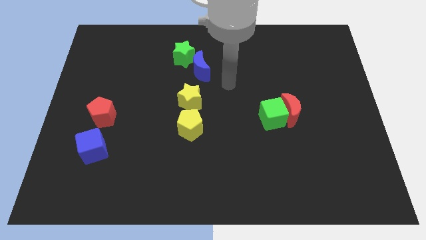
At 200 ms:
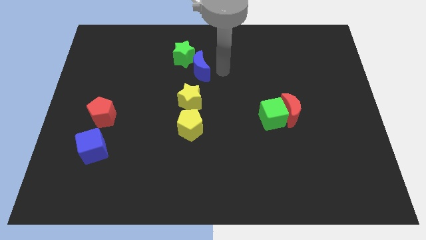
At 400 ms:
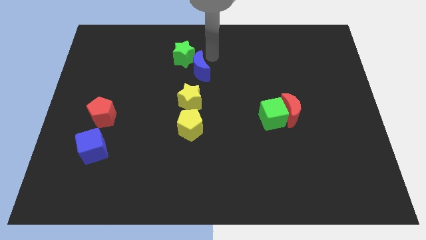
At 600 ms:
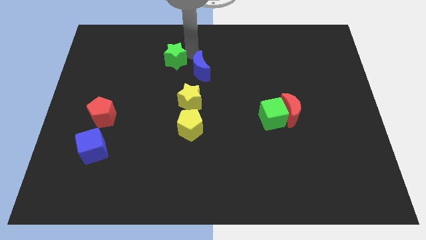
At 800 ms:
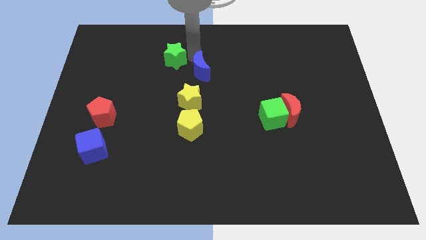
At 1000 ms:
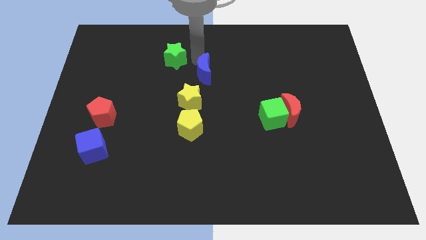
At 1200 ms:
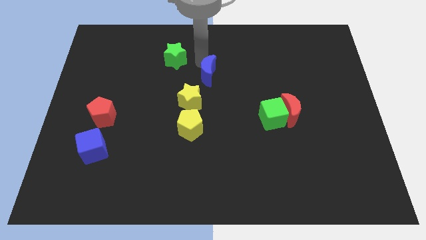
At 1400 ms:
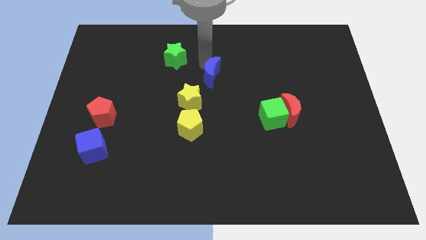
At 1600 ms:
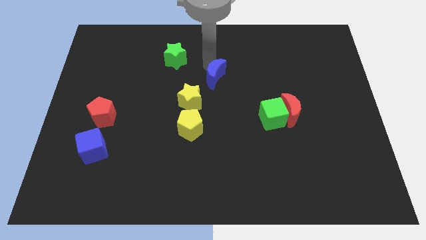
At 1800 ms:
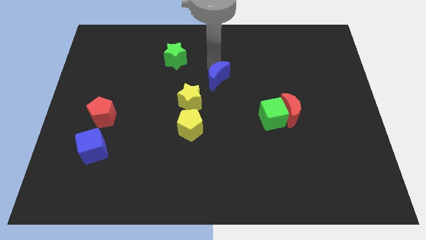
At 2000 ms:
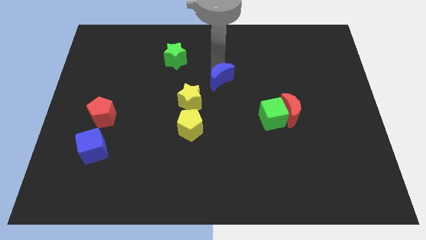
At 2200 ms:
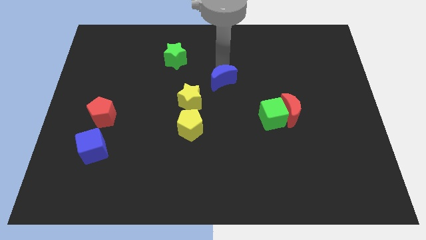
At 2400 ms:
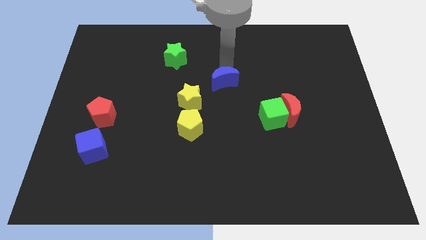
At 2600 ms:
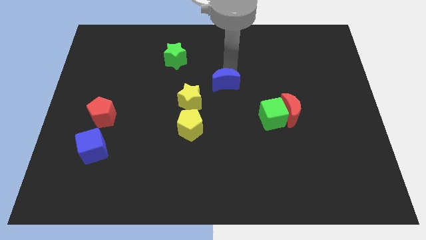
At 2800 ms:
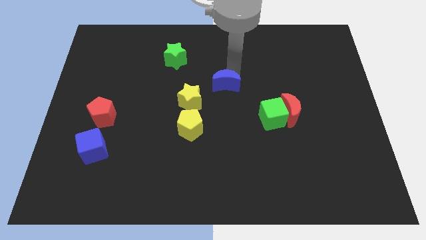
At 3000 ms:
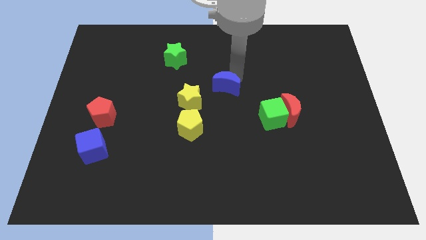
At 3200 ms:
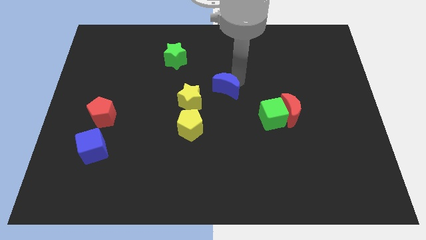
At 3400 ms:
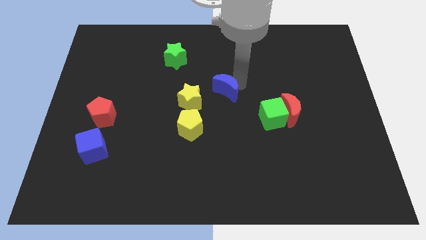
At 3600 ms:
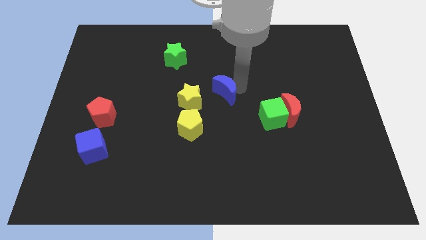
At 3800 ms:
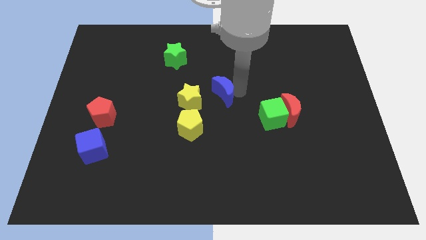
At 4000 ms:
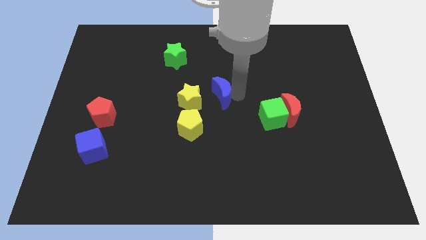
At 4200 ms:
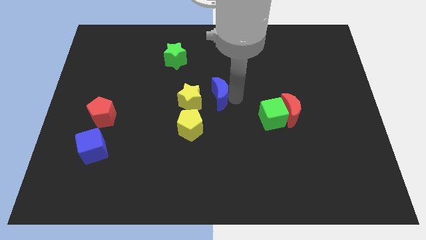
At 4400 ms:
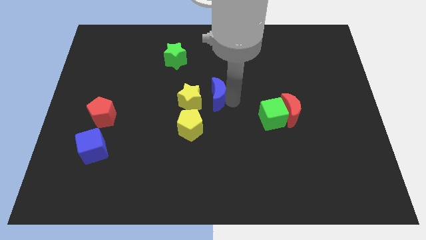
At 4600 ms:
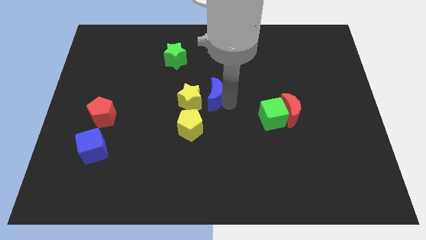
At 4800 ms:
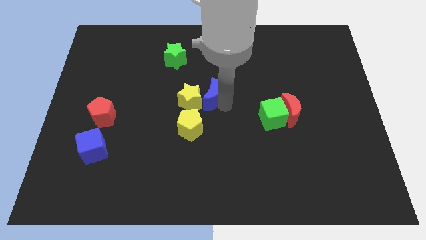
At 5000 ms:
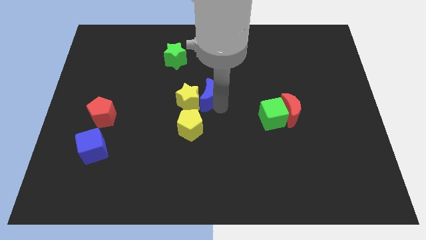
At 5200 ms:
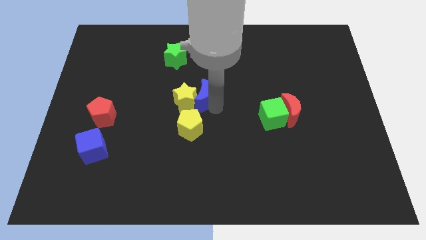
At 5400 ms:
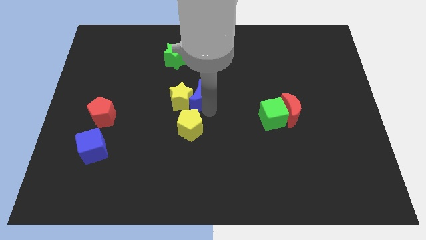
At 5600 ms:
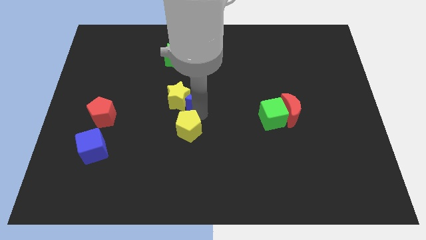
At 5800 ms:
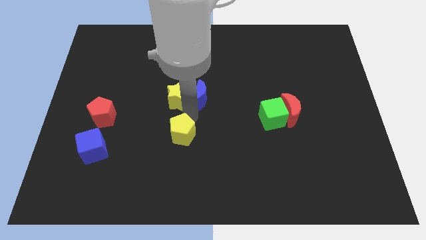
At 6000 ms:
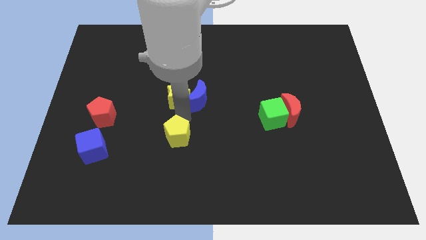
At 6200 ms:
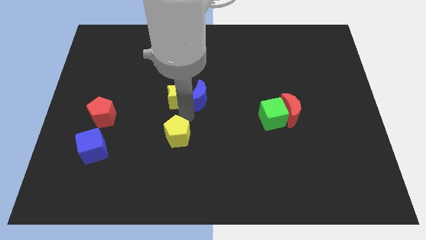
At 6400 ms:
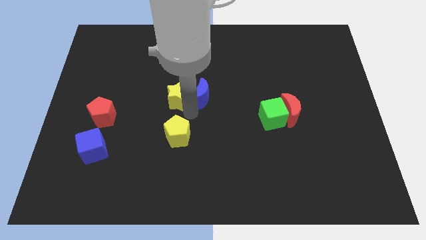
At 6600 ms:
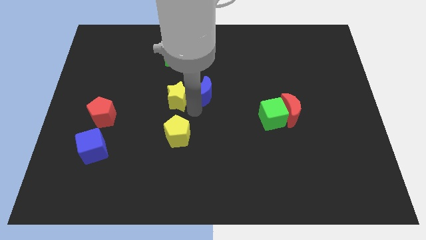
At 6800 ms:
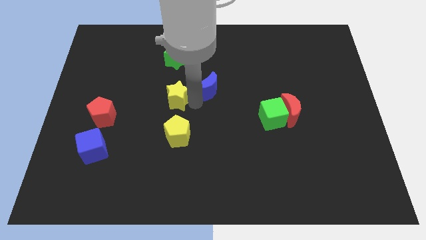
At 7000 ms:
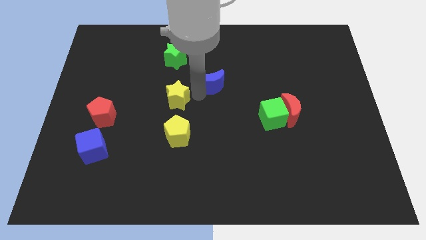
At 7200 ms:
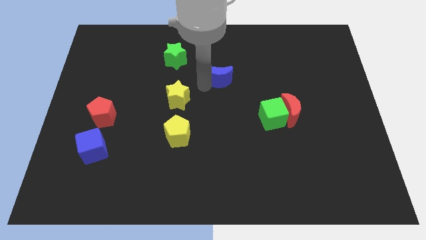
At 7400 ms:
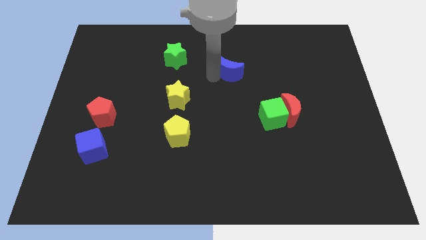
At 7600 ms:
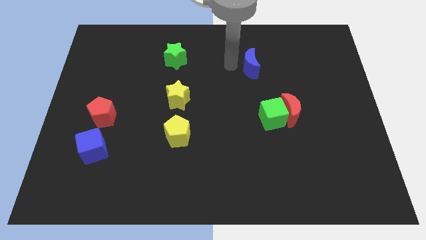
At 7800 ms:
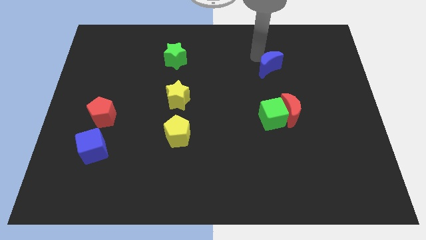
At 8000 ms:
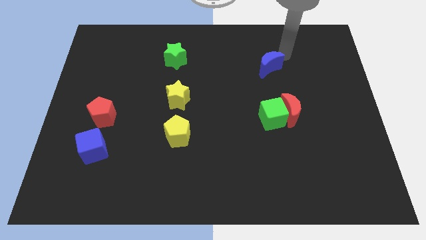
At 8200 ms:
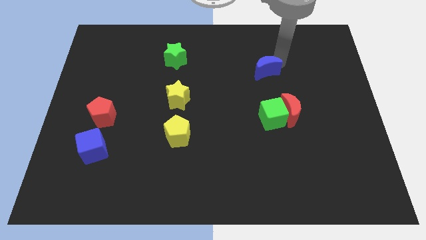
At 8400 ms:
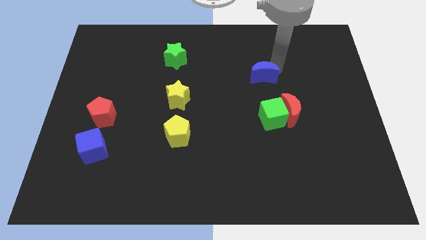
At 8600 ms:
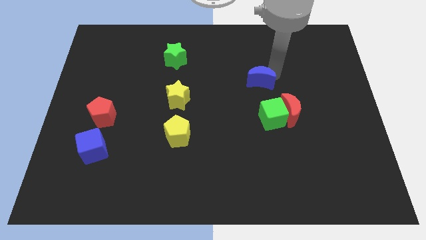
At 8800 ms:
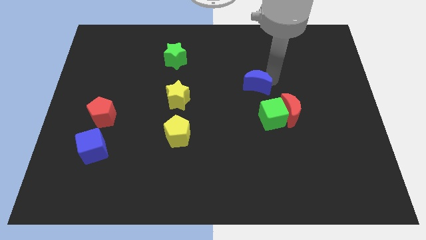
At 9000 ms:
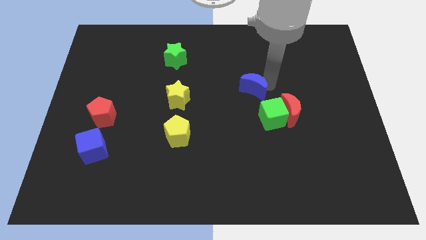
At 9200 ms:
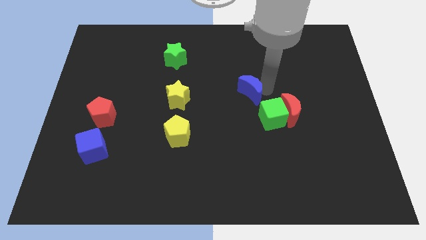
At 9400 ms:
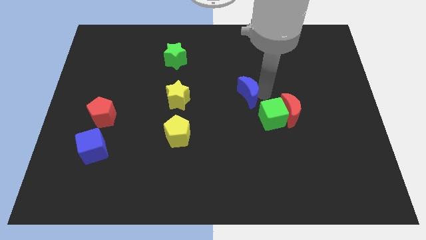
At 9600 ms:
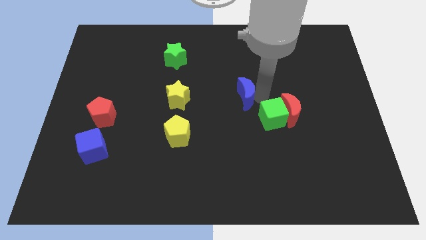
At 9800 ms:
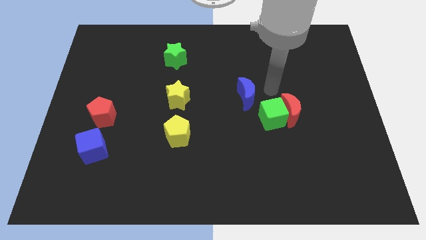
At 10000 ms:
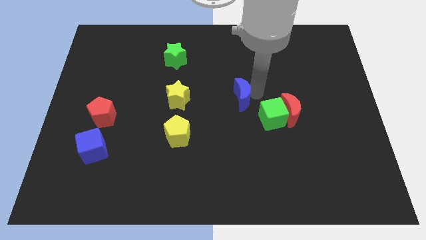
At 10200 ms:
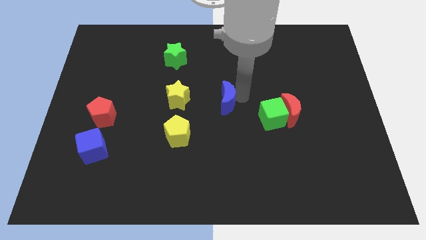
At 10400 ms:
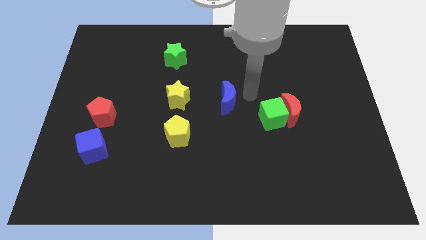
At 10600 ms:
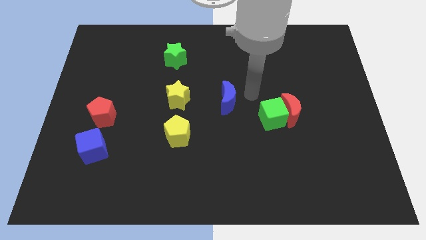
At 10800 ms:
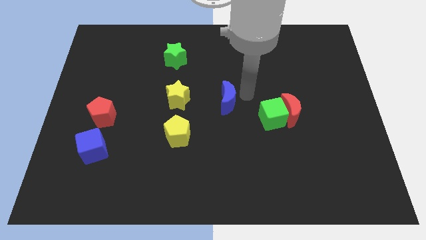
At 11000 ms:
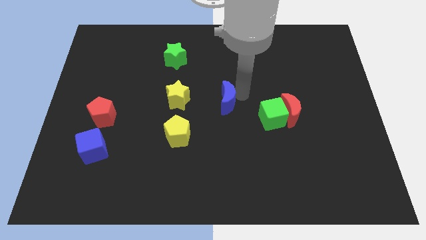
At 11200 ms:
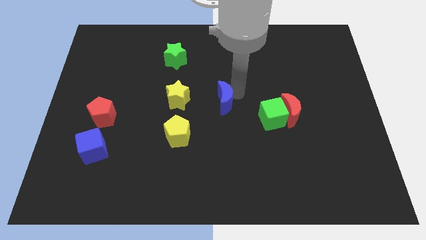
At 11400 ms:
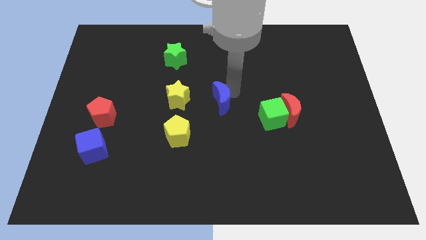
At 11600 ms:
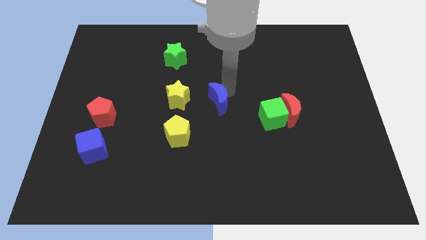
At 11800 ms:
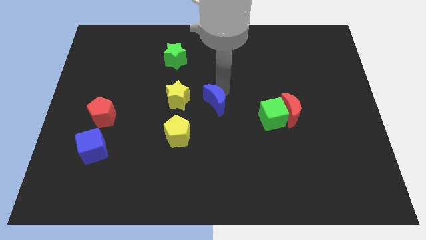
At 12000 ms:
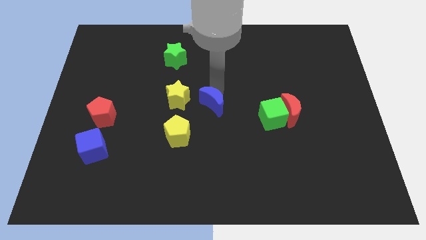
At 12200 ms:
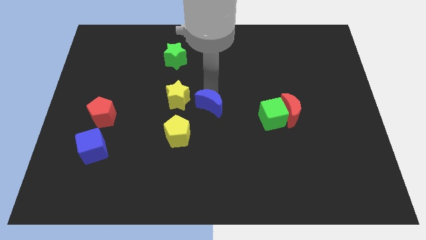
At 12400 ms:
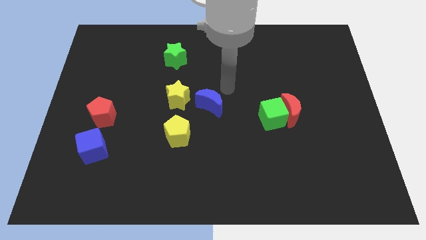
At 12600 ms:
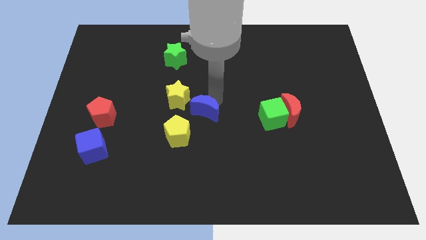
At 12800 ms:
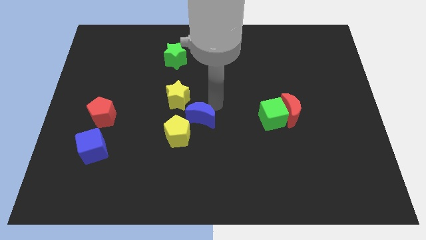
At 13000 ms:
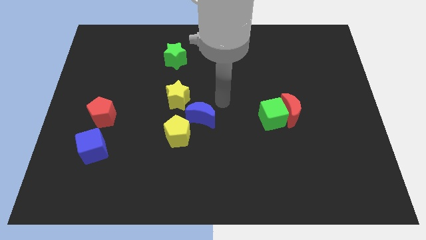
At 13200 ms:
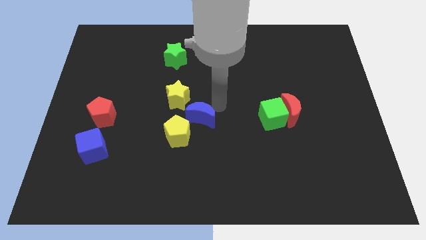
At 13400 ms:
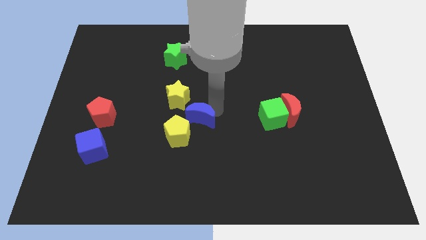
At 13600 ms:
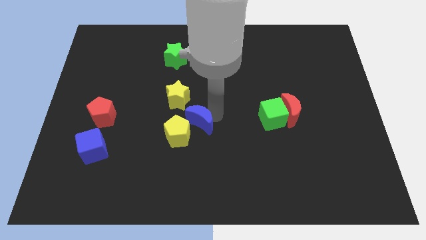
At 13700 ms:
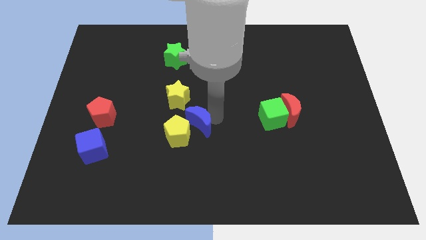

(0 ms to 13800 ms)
move the blue moon close to the yellow pentagon
